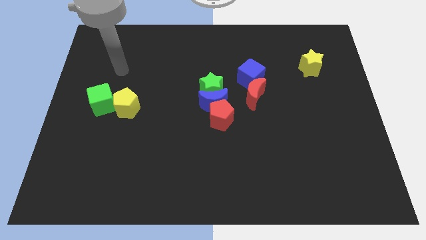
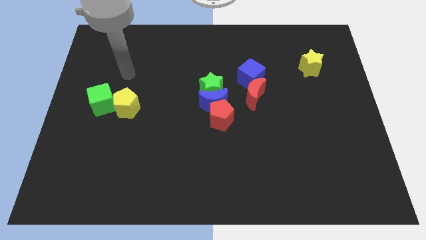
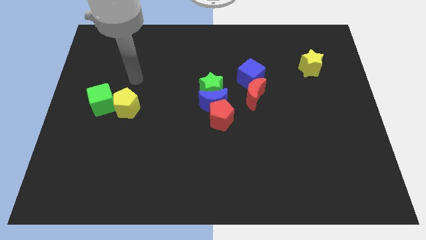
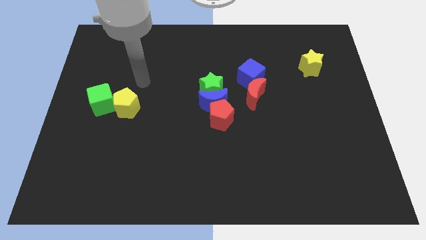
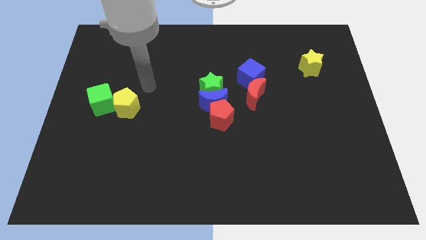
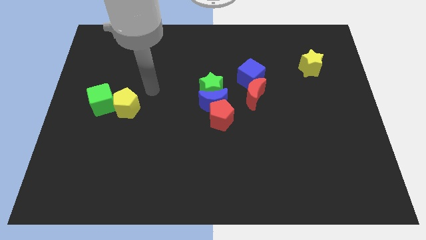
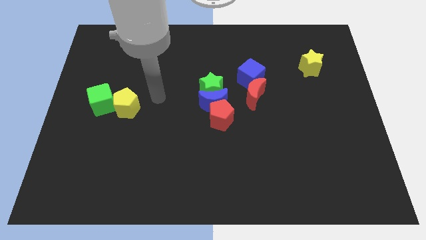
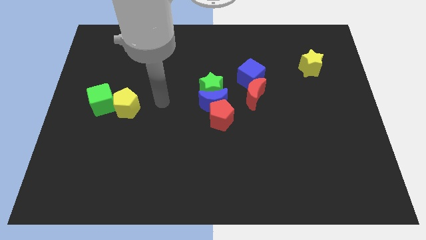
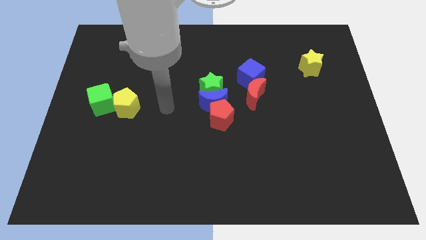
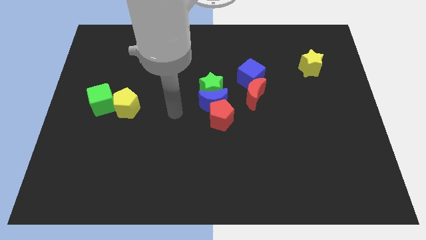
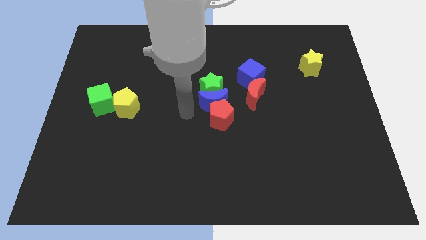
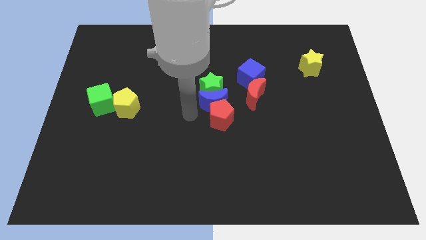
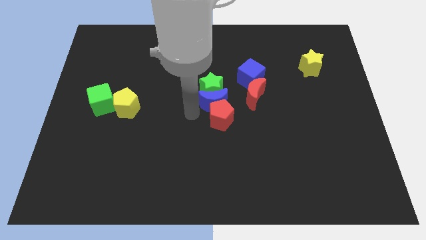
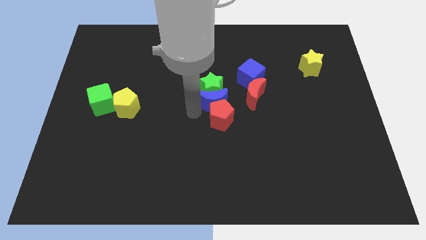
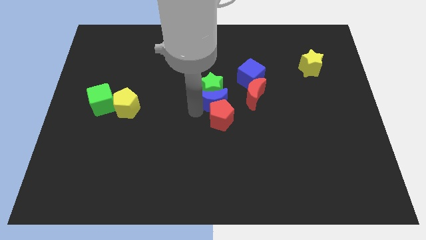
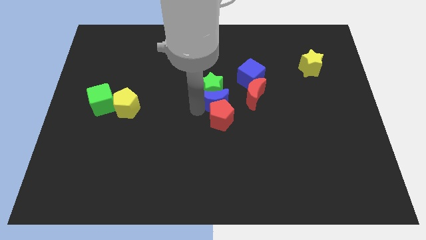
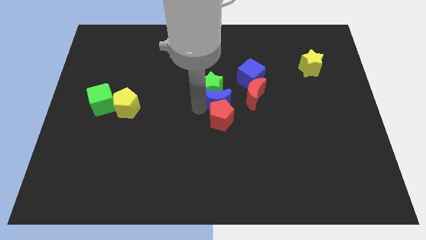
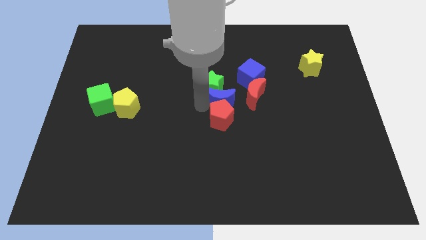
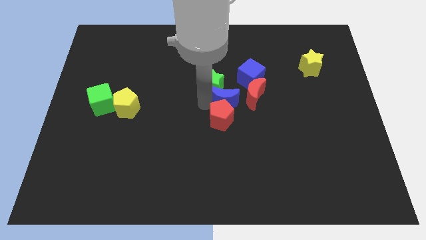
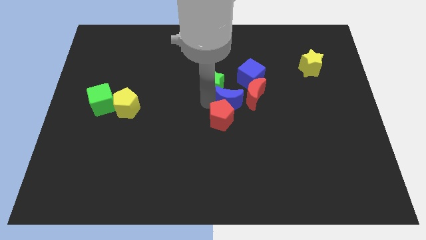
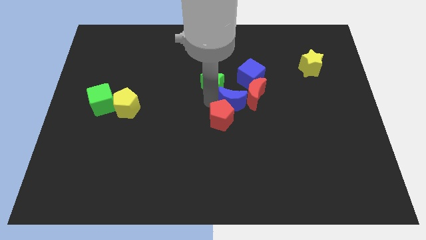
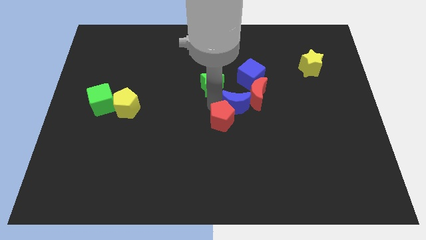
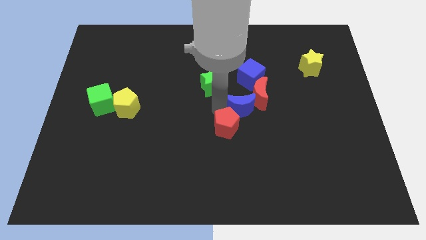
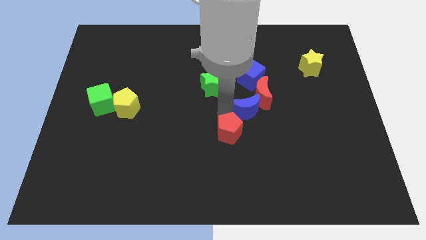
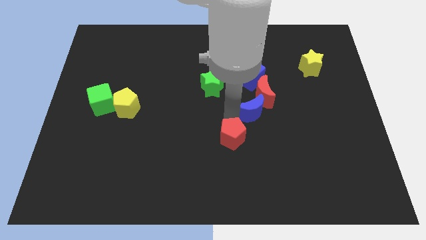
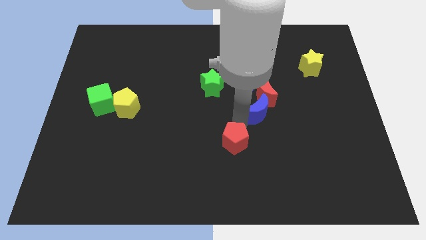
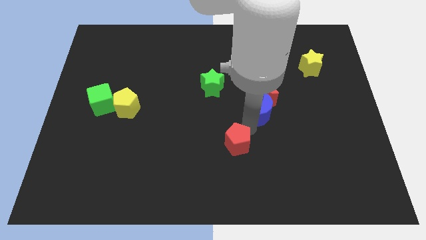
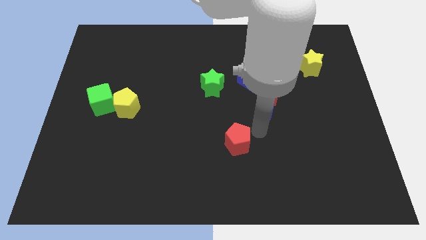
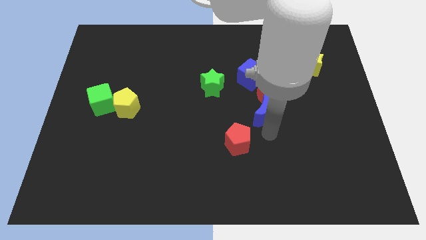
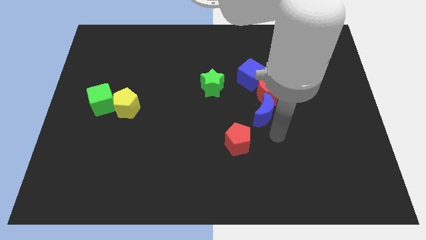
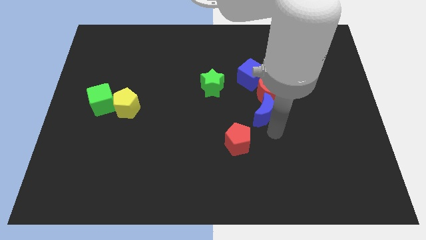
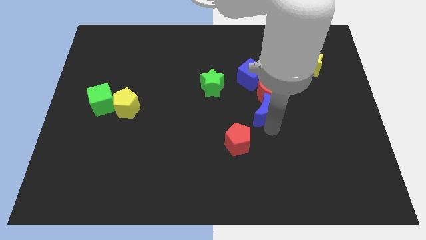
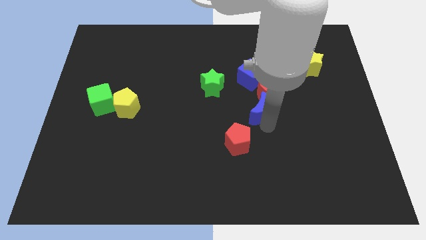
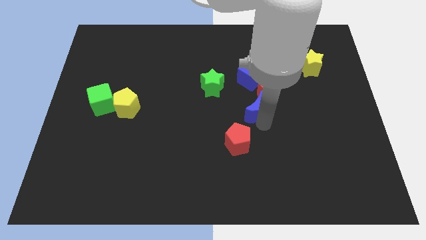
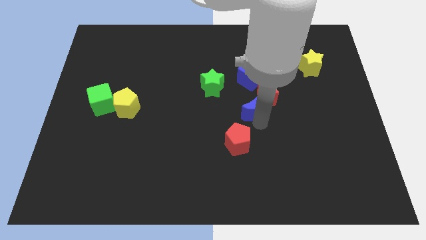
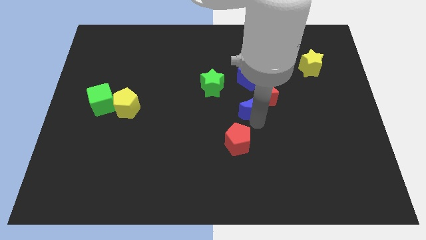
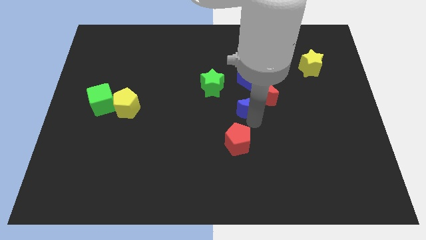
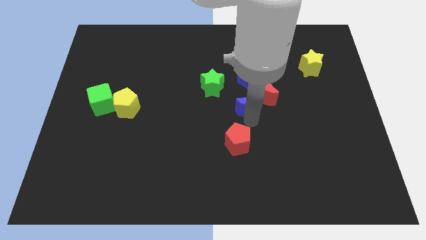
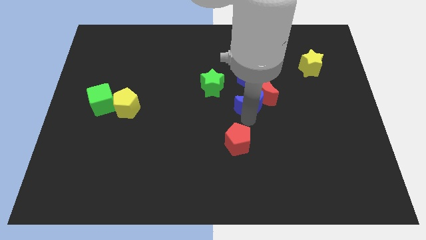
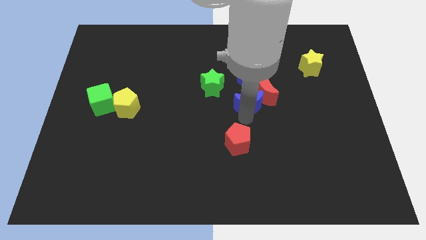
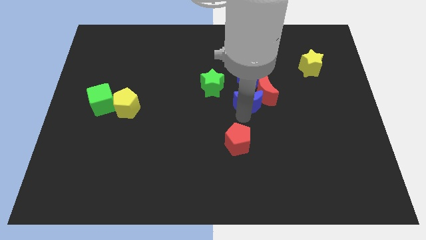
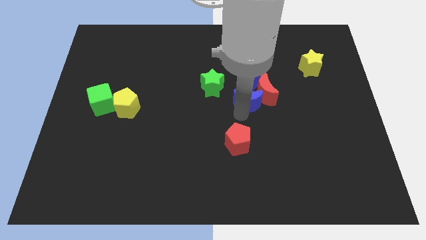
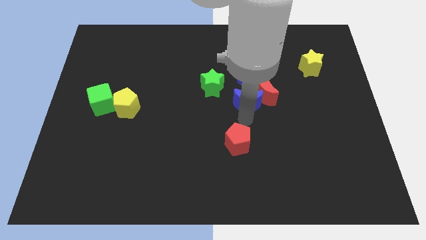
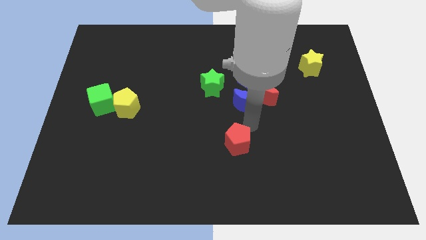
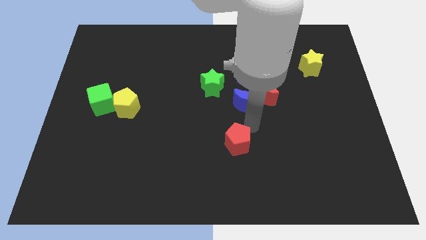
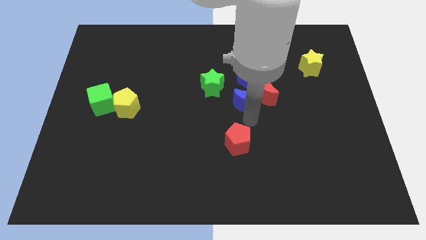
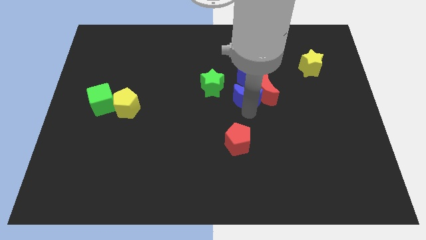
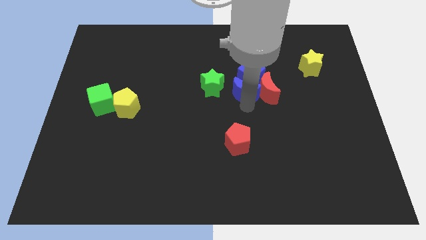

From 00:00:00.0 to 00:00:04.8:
slide the blue moon diagonally up and to the left of the red moon

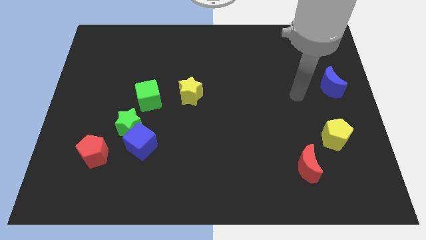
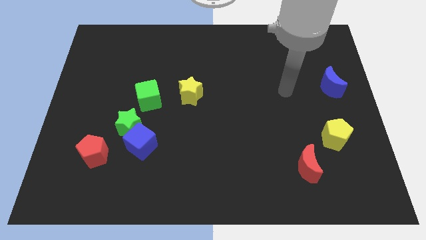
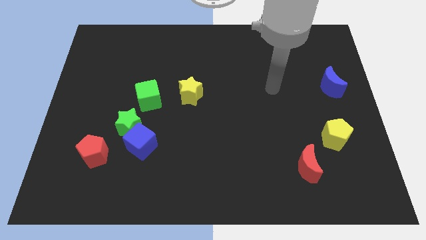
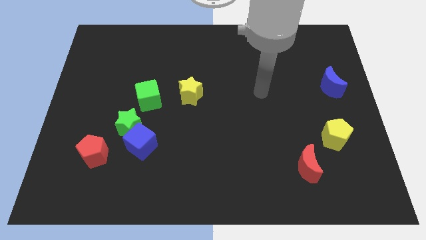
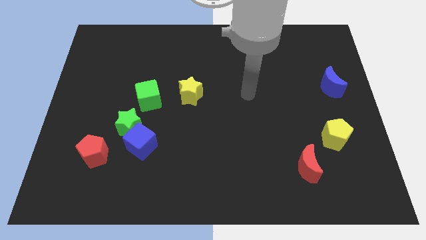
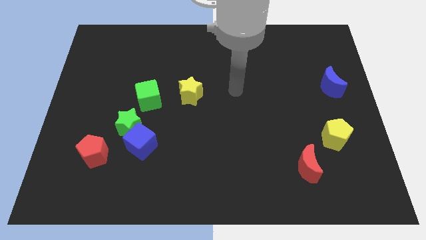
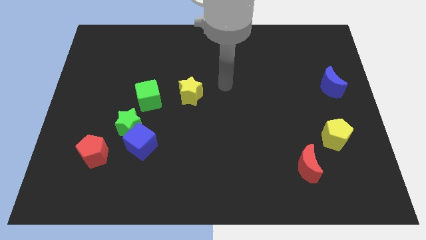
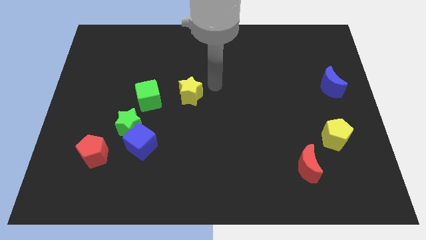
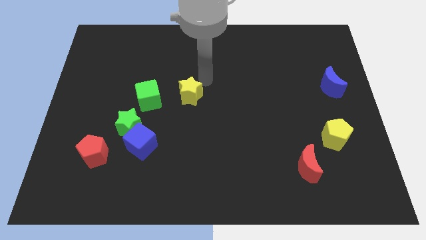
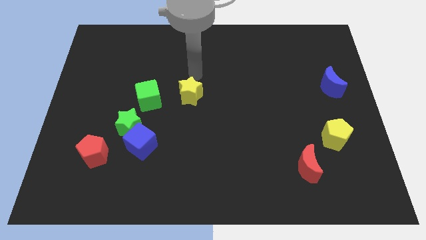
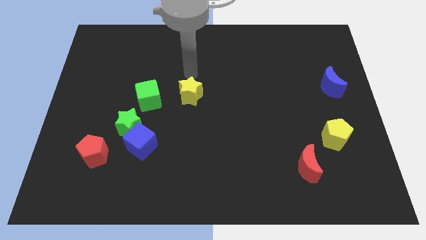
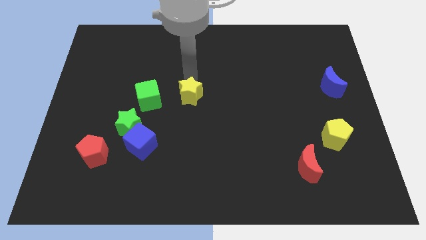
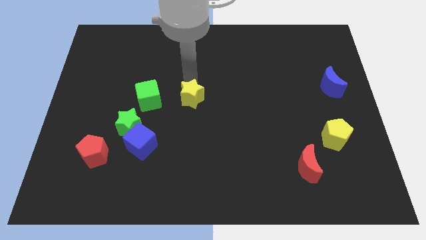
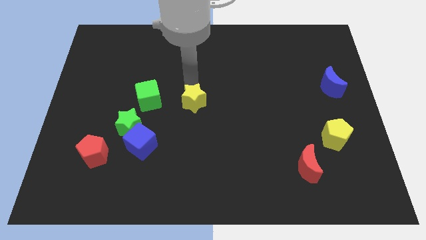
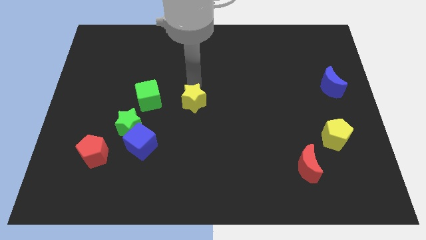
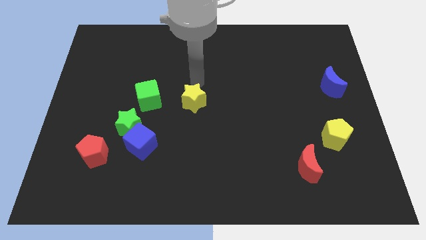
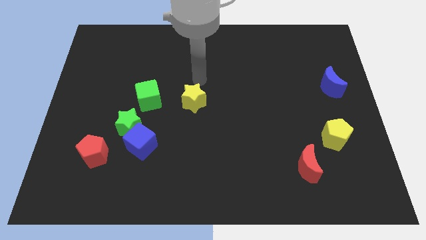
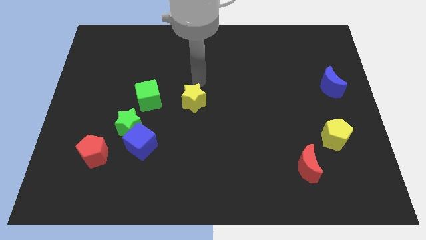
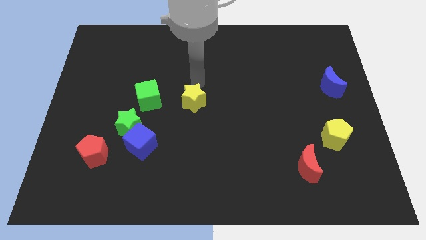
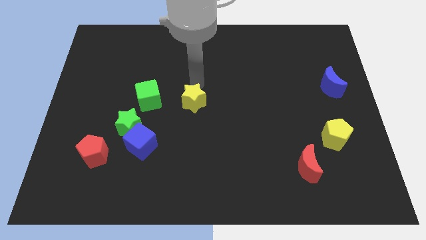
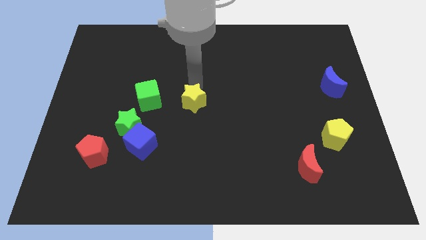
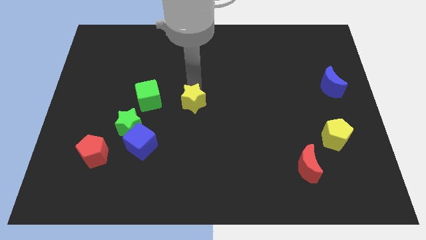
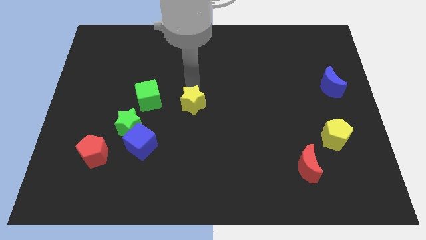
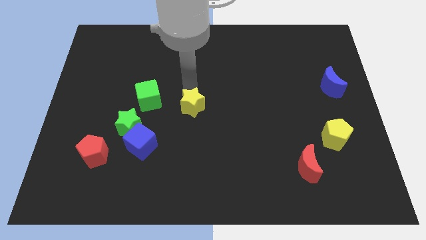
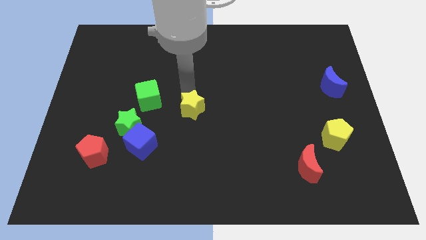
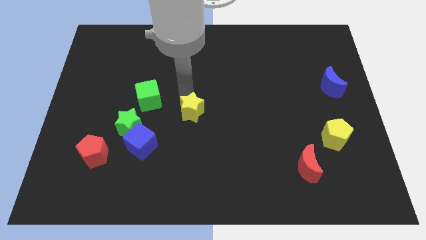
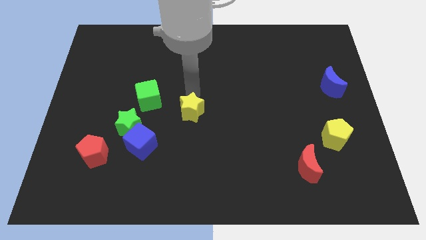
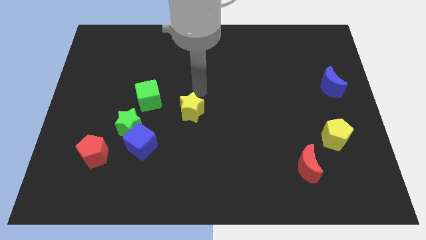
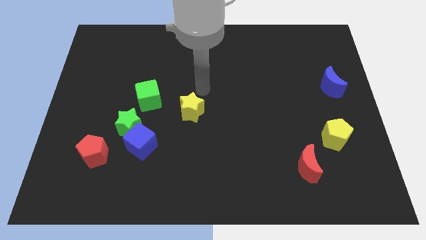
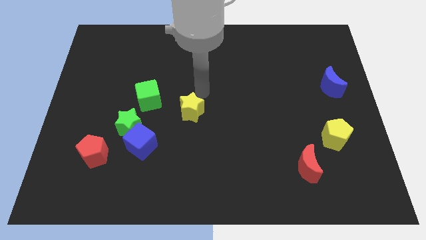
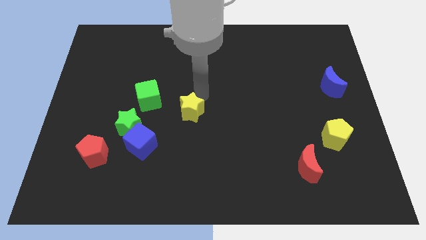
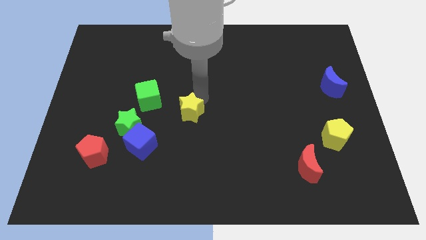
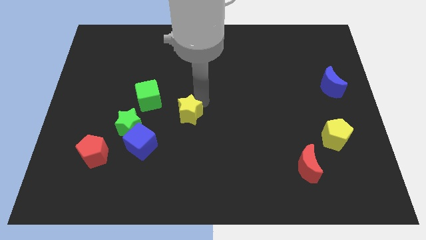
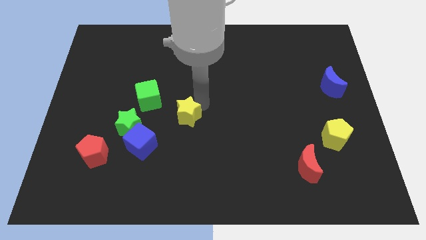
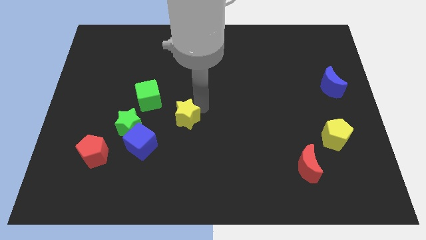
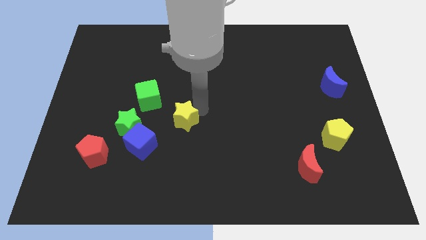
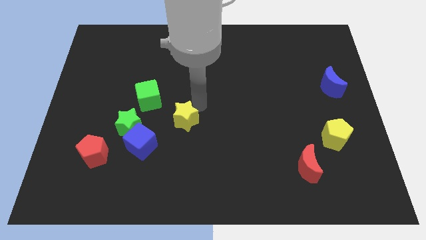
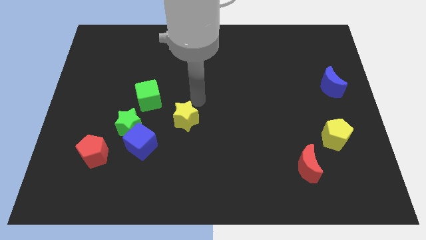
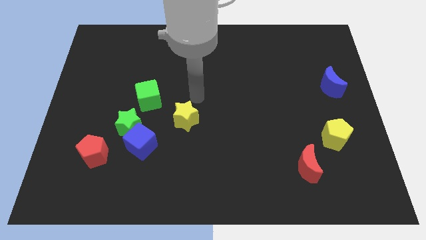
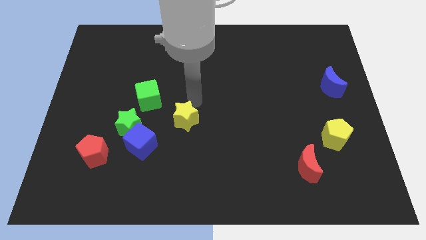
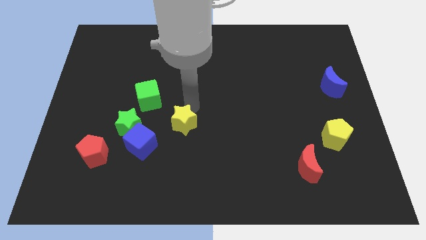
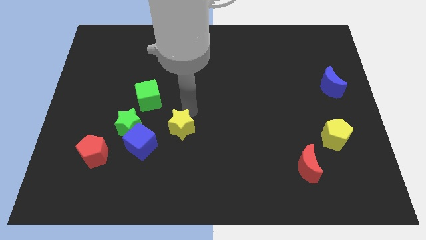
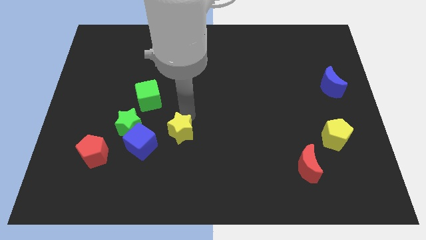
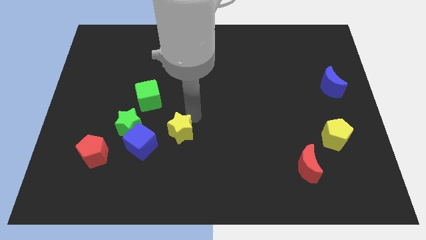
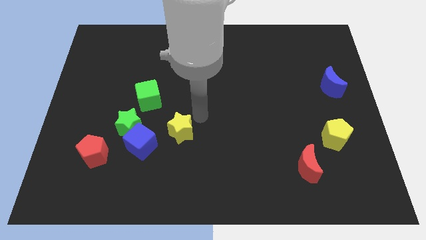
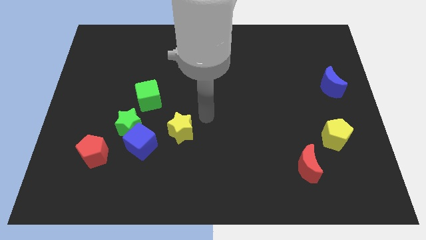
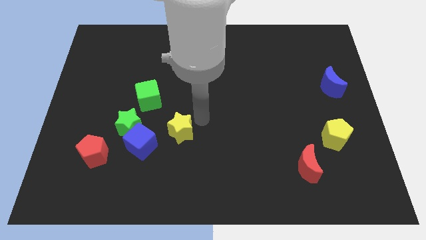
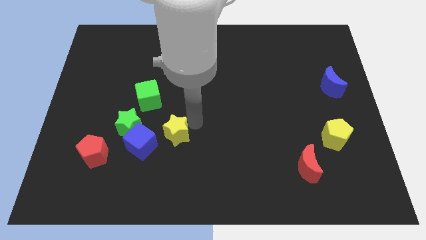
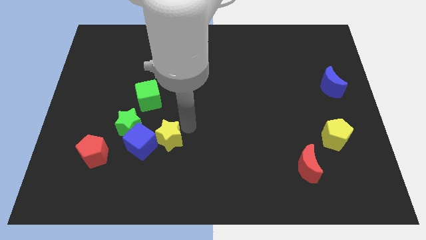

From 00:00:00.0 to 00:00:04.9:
slide the yellow star to the bottom right of the green star
